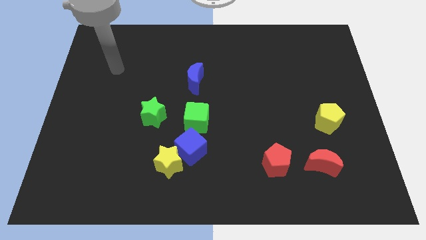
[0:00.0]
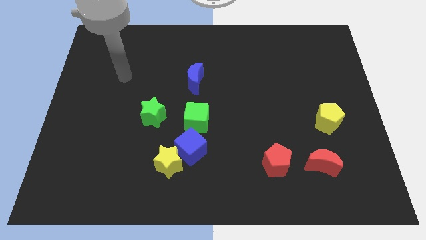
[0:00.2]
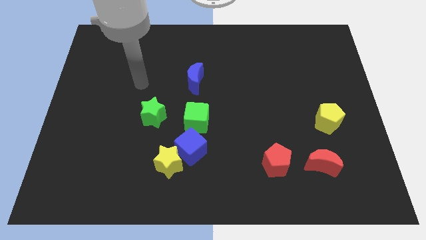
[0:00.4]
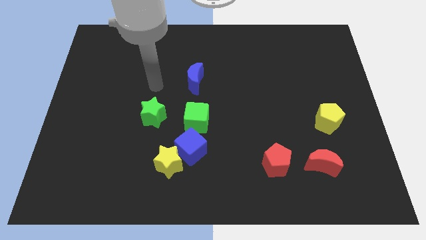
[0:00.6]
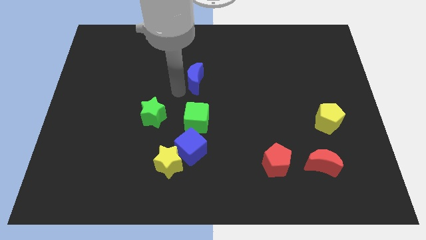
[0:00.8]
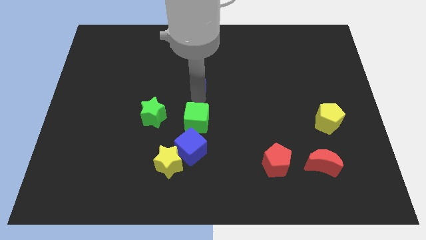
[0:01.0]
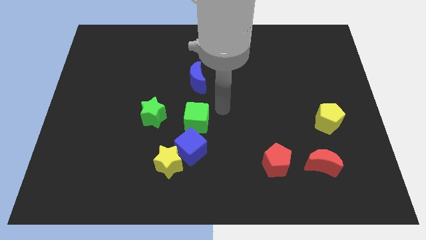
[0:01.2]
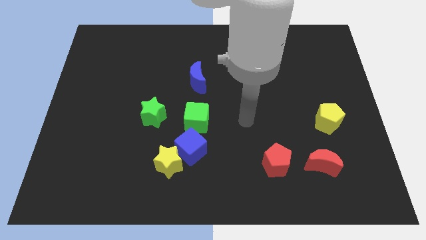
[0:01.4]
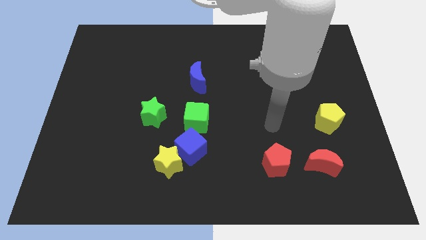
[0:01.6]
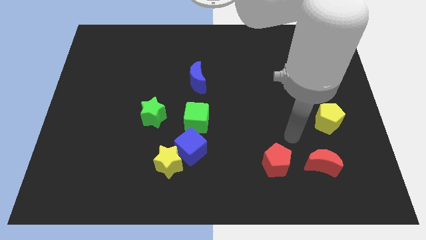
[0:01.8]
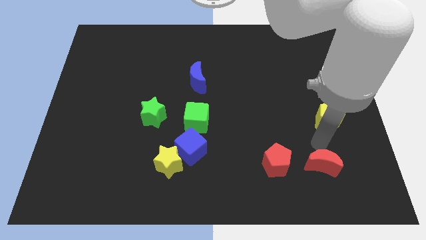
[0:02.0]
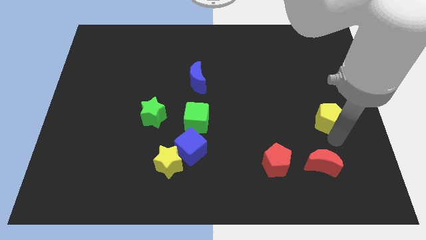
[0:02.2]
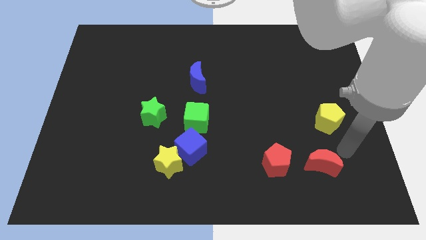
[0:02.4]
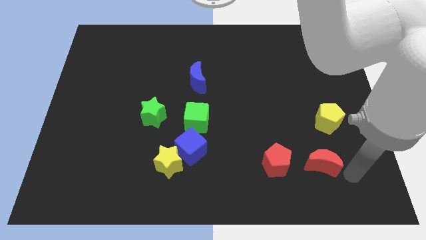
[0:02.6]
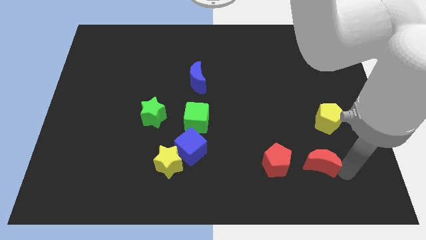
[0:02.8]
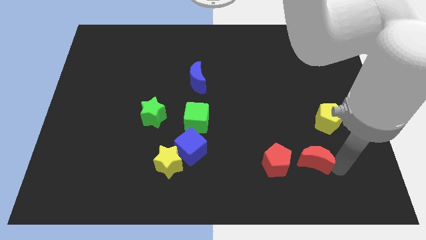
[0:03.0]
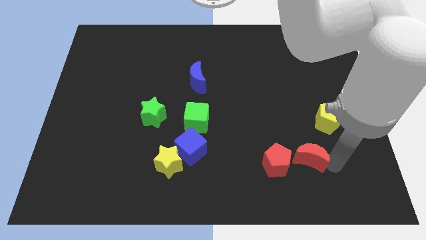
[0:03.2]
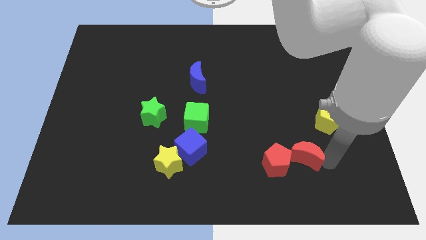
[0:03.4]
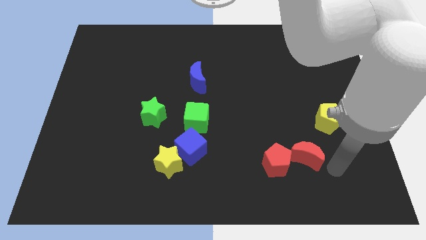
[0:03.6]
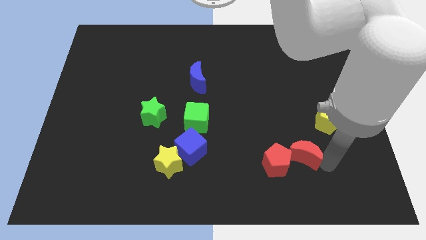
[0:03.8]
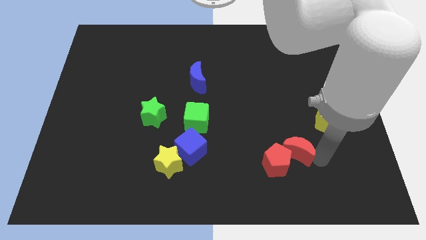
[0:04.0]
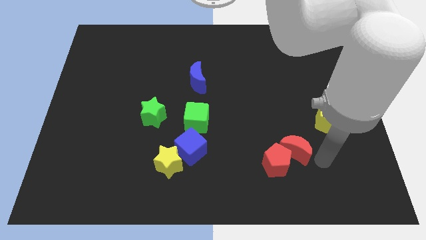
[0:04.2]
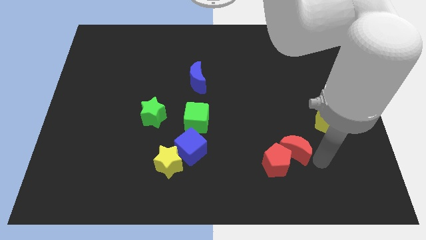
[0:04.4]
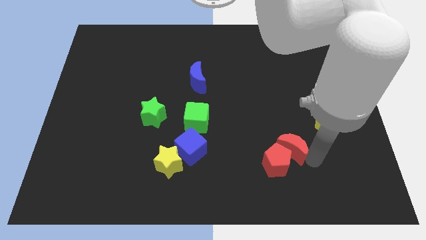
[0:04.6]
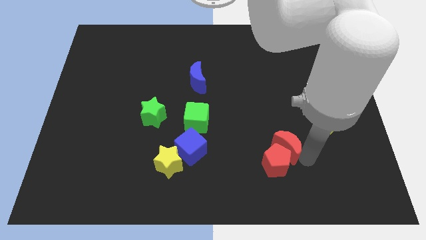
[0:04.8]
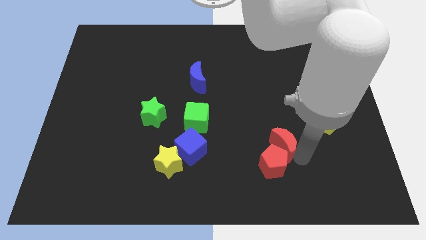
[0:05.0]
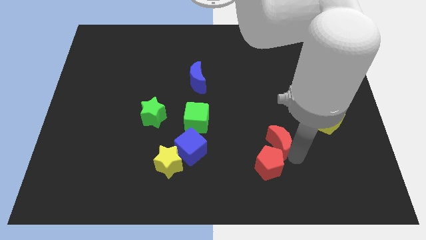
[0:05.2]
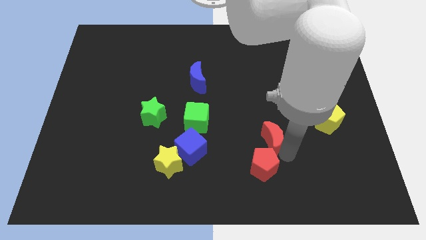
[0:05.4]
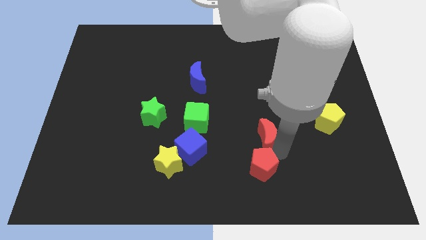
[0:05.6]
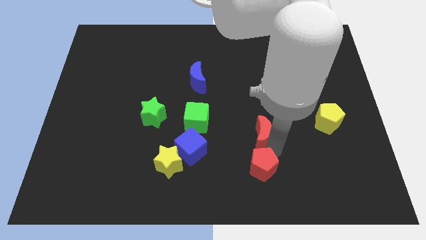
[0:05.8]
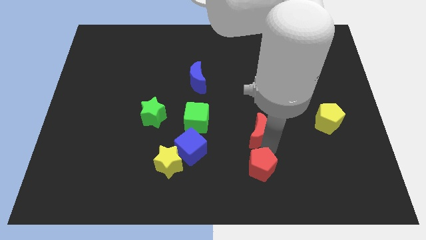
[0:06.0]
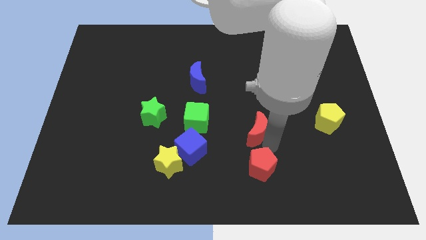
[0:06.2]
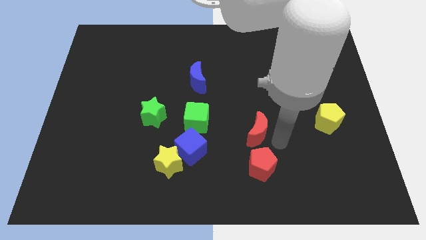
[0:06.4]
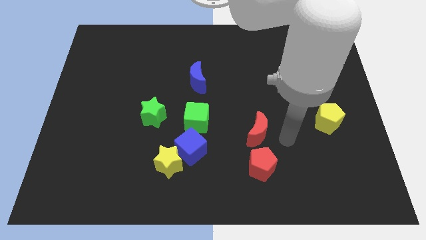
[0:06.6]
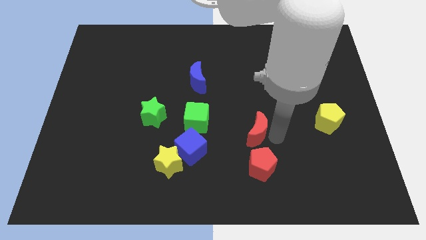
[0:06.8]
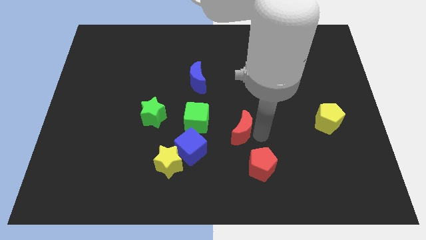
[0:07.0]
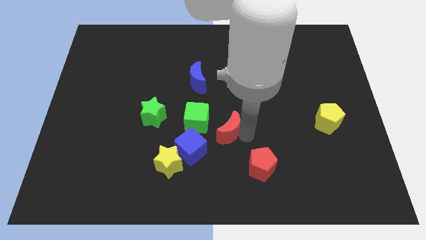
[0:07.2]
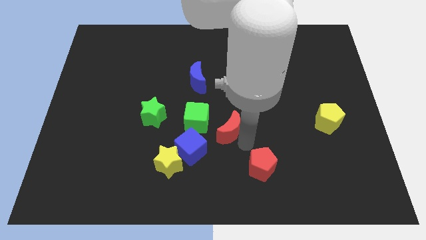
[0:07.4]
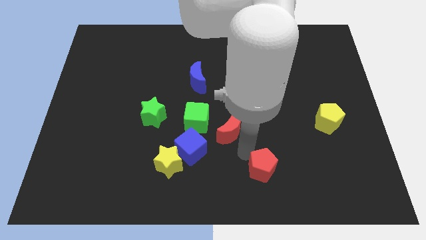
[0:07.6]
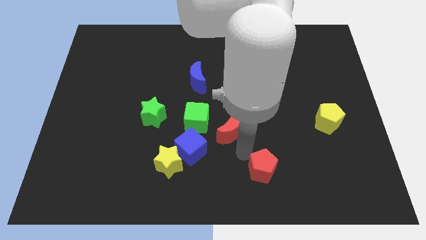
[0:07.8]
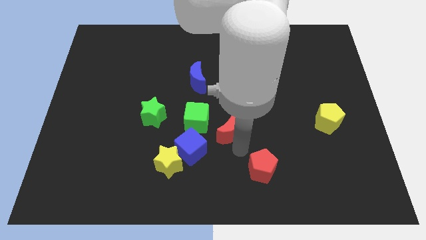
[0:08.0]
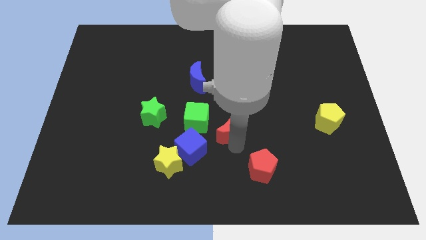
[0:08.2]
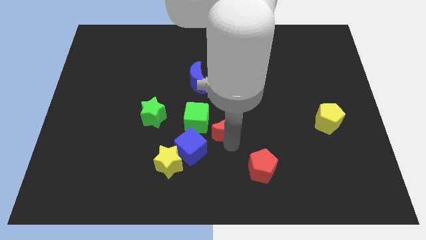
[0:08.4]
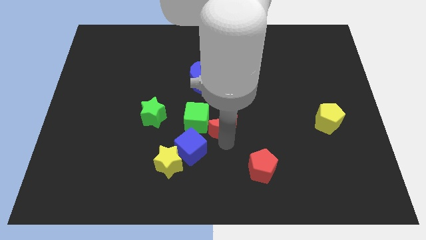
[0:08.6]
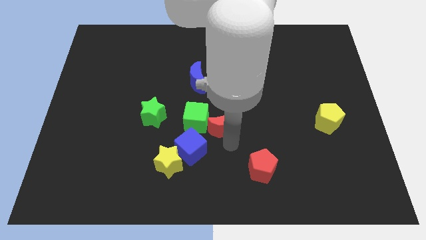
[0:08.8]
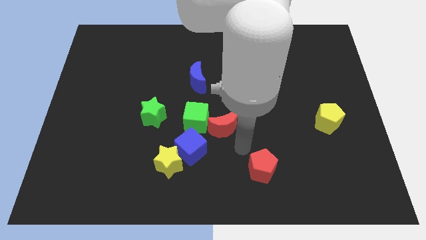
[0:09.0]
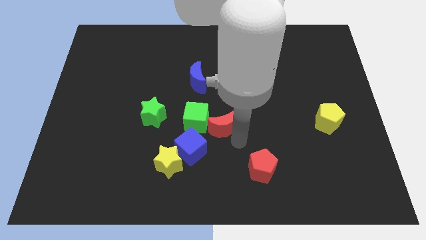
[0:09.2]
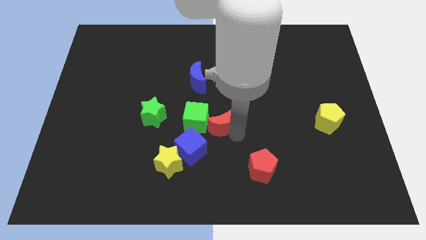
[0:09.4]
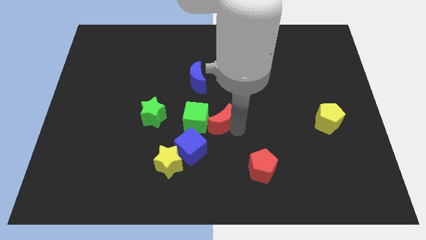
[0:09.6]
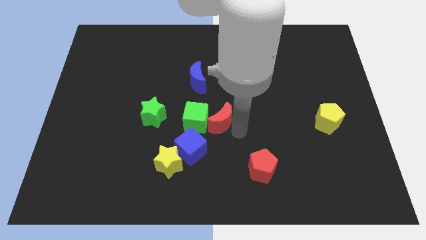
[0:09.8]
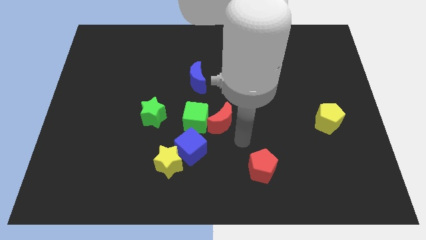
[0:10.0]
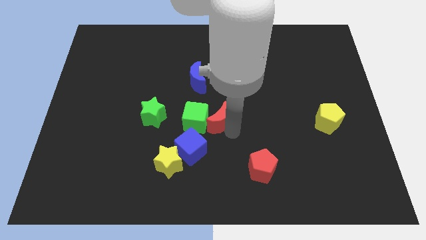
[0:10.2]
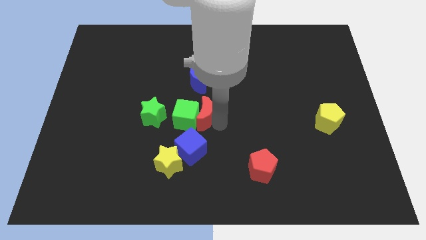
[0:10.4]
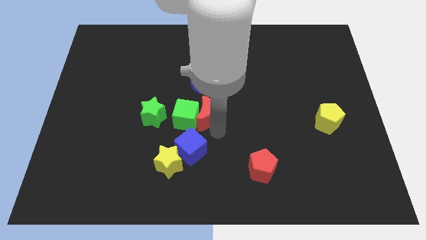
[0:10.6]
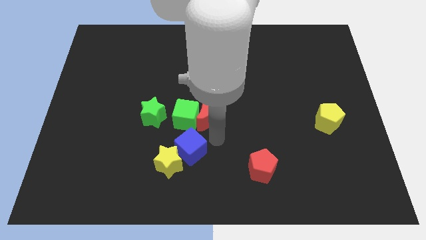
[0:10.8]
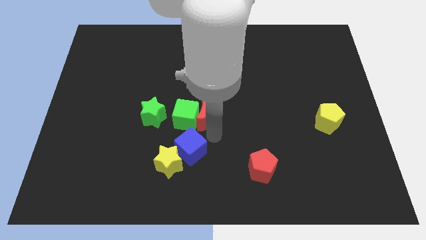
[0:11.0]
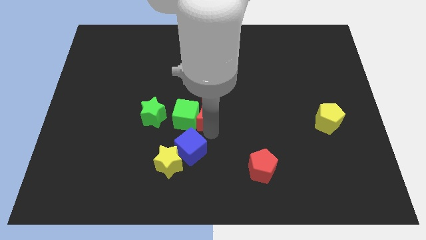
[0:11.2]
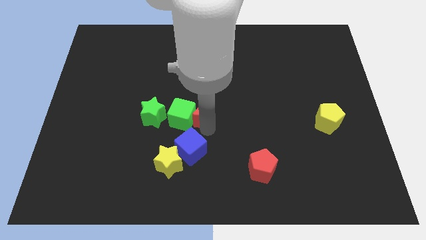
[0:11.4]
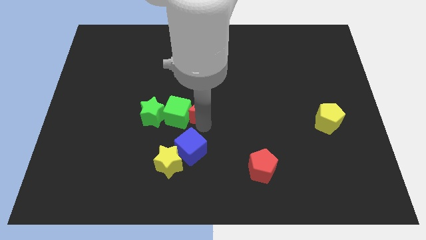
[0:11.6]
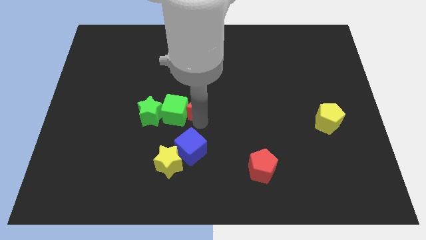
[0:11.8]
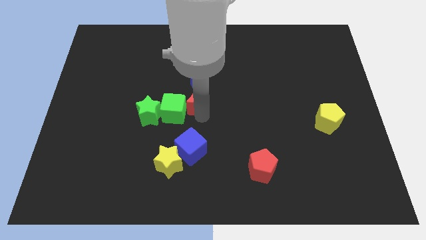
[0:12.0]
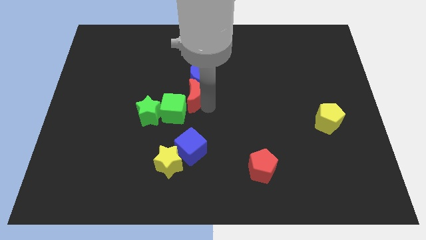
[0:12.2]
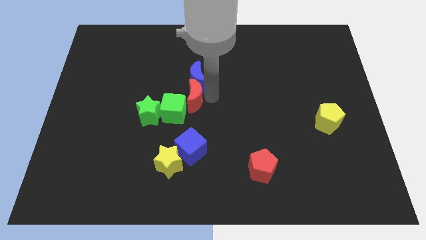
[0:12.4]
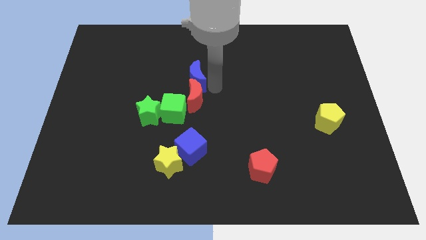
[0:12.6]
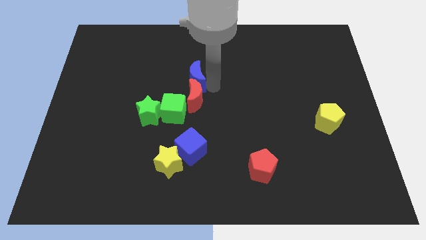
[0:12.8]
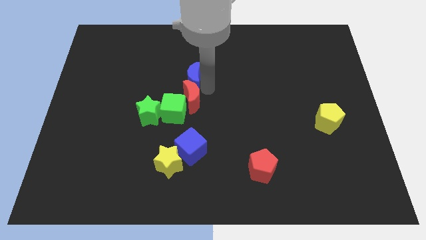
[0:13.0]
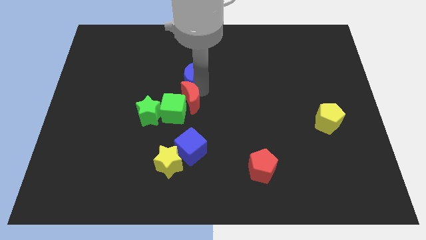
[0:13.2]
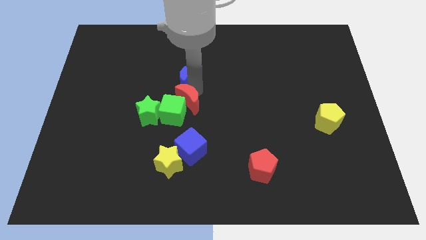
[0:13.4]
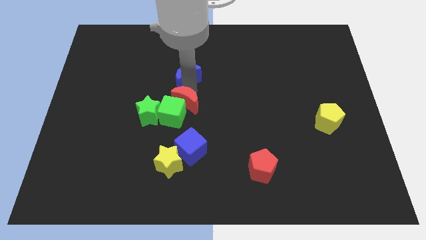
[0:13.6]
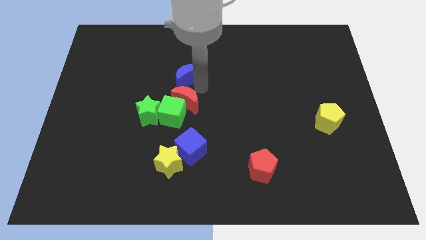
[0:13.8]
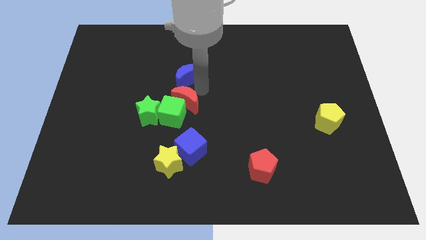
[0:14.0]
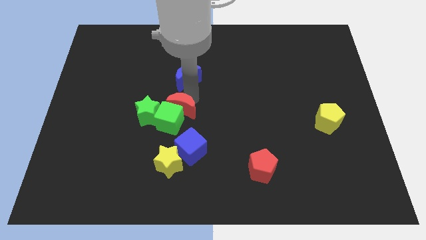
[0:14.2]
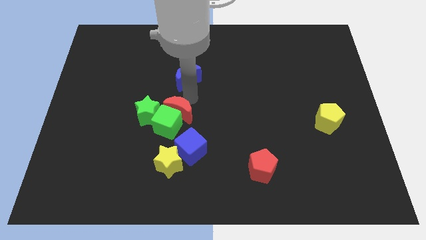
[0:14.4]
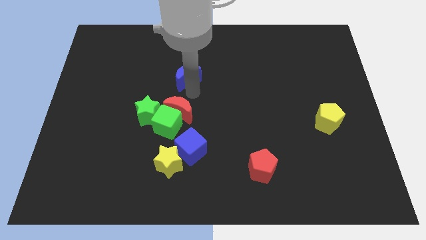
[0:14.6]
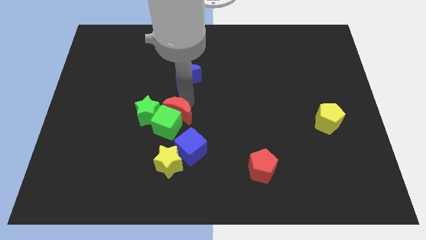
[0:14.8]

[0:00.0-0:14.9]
put the red moon to the top left of the blue cube

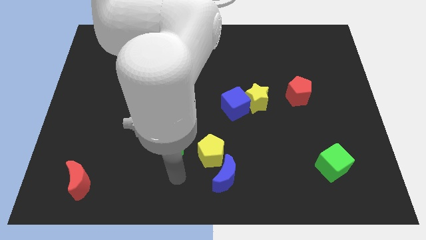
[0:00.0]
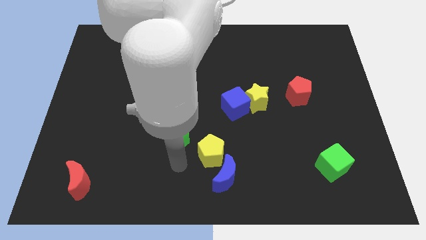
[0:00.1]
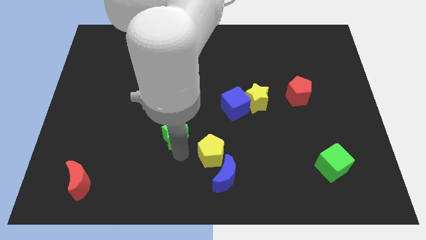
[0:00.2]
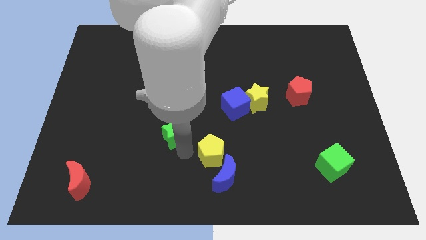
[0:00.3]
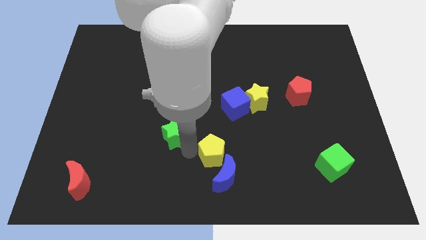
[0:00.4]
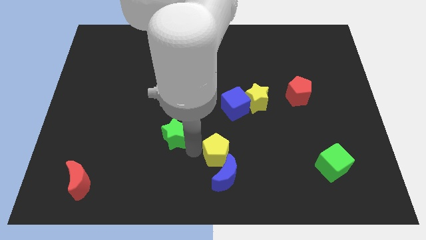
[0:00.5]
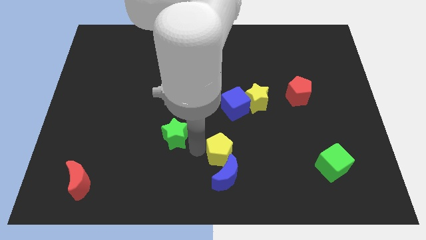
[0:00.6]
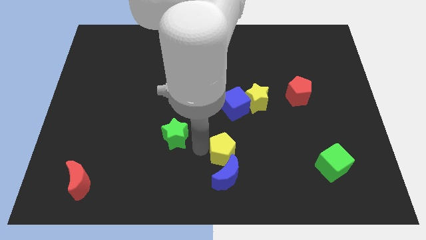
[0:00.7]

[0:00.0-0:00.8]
push the yellow pentagon diagonally up and to the right of the blue moon
